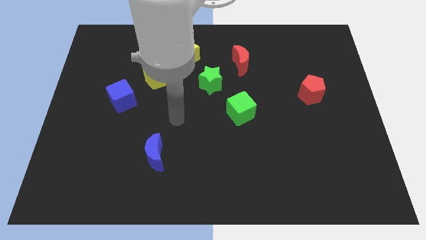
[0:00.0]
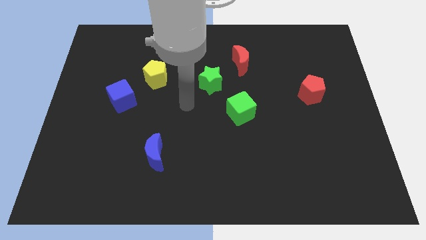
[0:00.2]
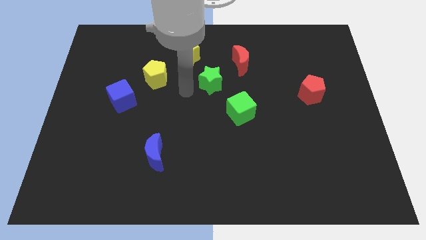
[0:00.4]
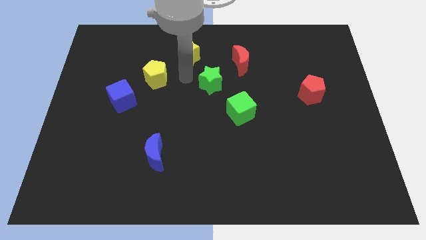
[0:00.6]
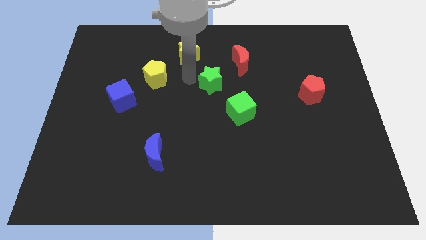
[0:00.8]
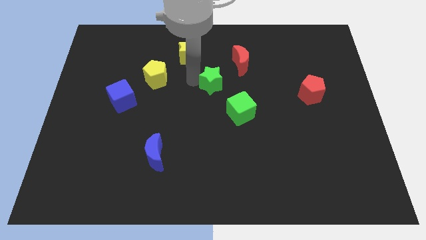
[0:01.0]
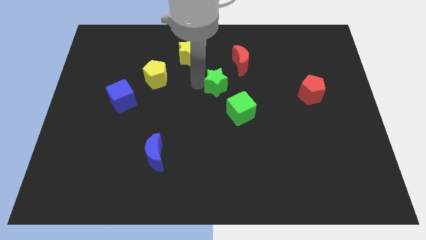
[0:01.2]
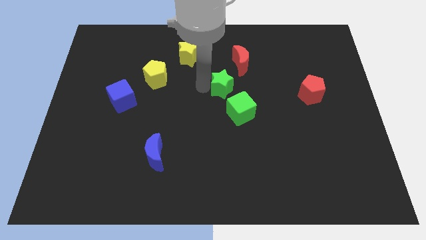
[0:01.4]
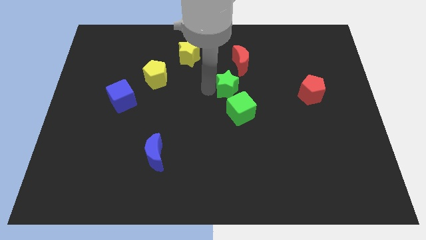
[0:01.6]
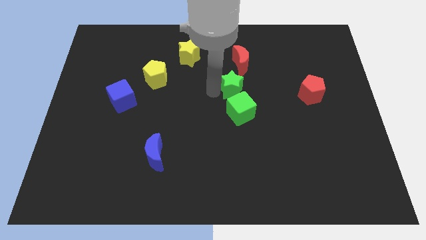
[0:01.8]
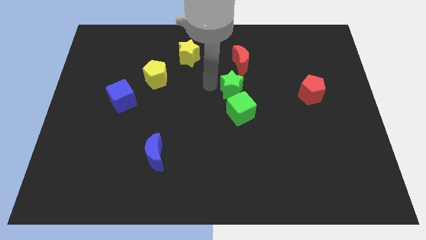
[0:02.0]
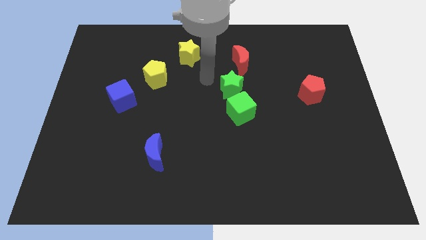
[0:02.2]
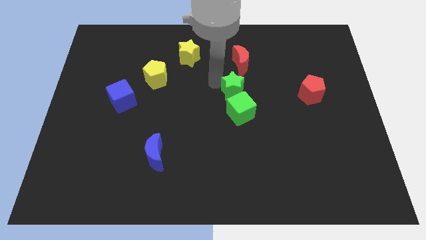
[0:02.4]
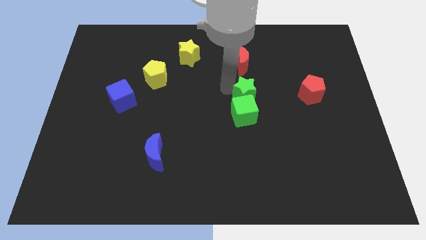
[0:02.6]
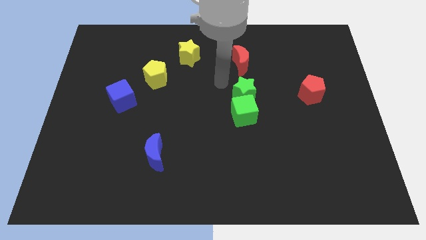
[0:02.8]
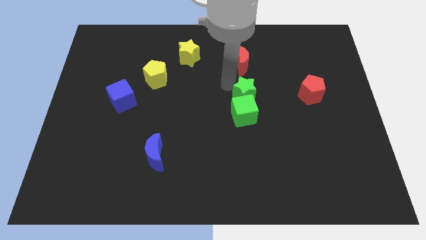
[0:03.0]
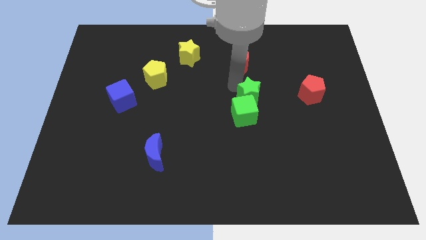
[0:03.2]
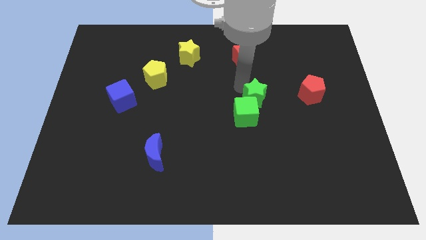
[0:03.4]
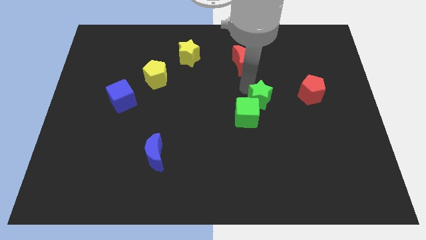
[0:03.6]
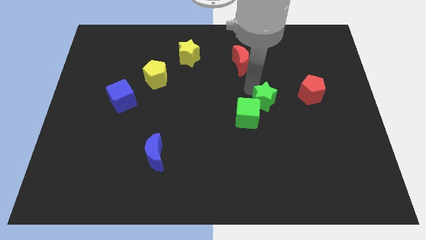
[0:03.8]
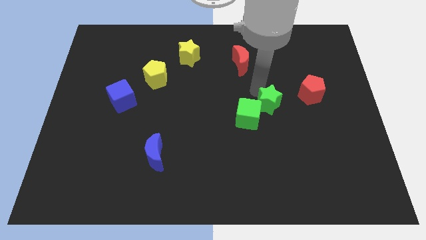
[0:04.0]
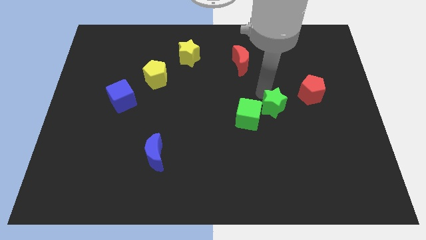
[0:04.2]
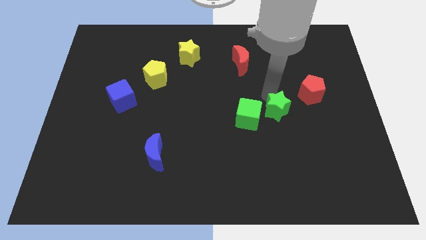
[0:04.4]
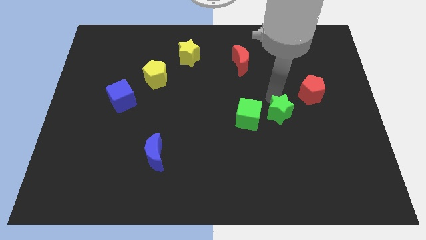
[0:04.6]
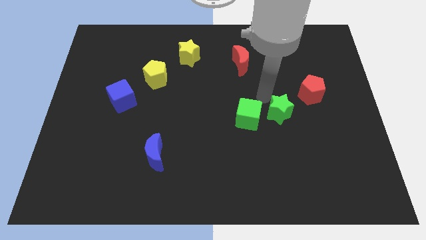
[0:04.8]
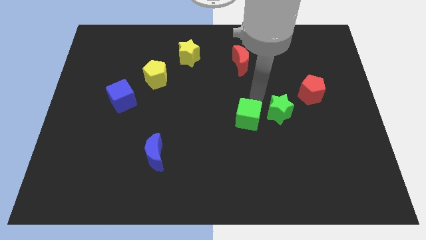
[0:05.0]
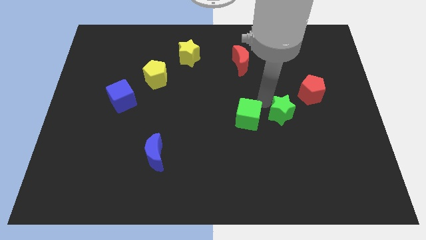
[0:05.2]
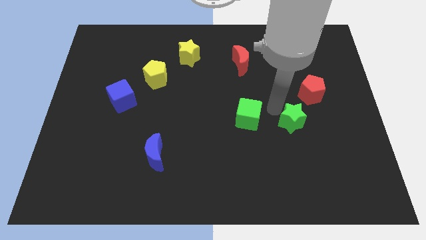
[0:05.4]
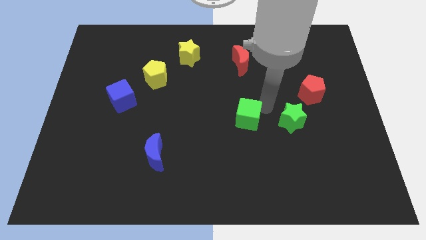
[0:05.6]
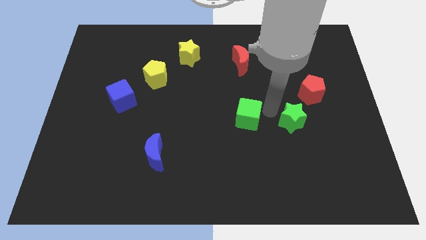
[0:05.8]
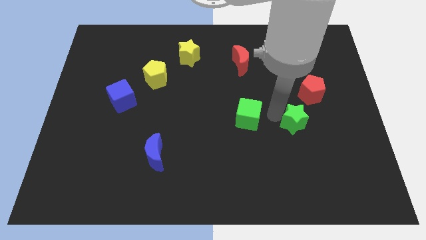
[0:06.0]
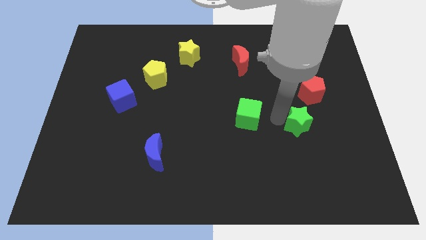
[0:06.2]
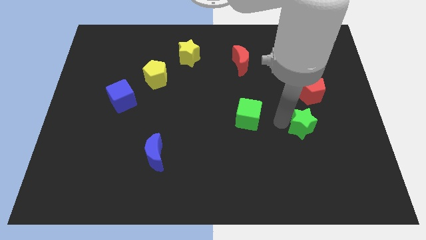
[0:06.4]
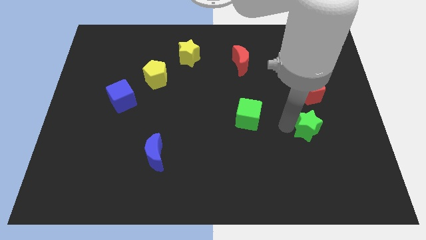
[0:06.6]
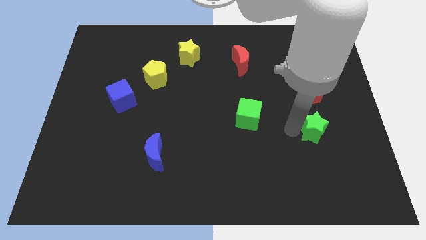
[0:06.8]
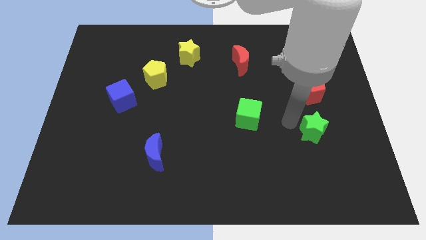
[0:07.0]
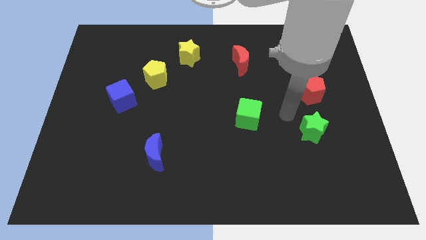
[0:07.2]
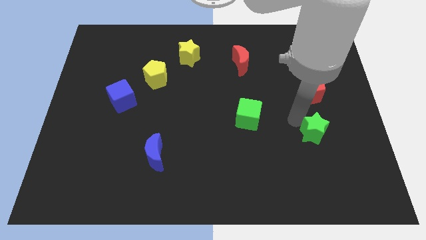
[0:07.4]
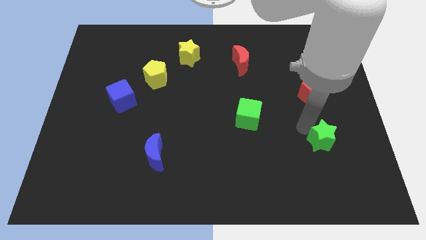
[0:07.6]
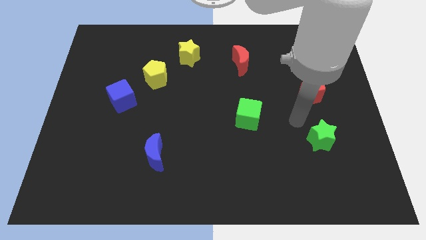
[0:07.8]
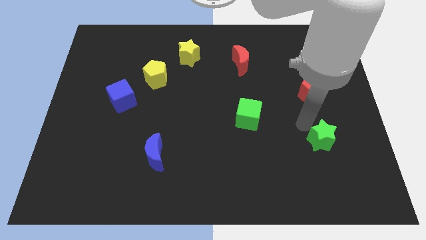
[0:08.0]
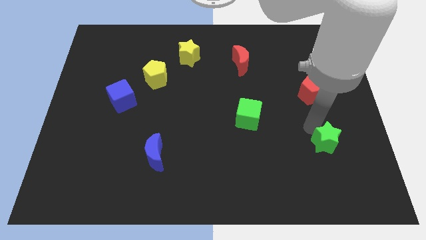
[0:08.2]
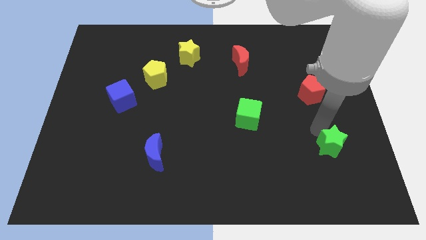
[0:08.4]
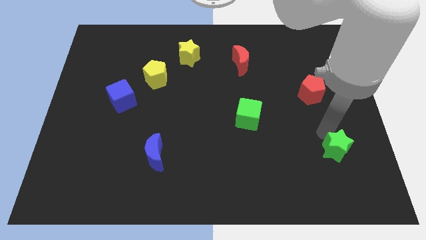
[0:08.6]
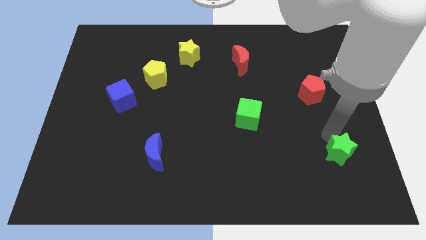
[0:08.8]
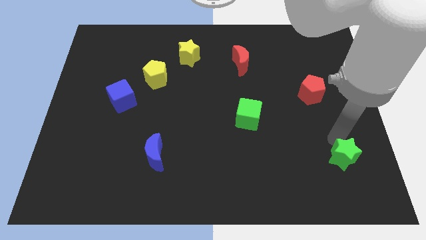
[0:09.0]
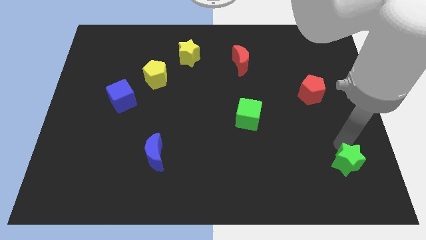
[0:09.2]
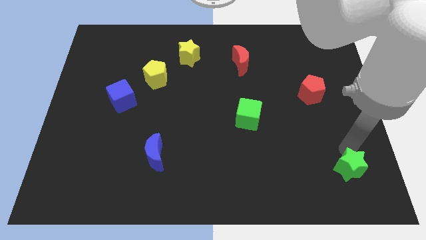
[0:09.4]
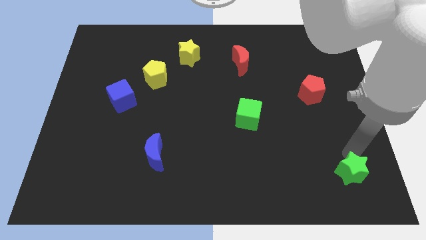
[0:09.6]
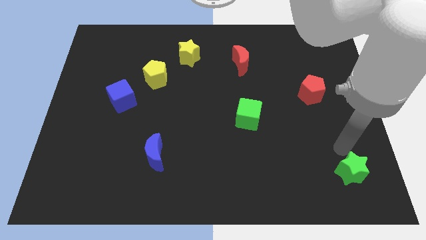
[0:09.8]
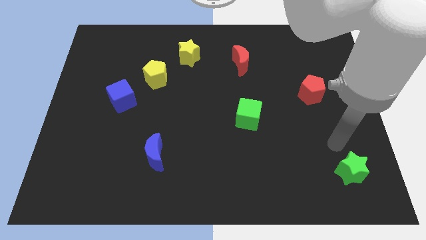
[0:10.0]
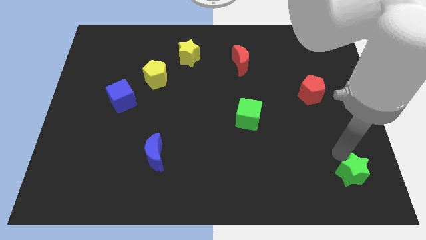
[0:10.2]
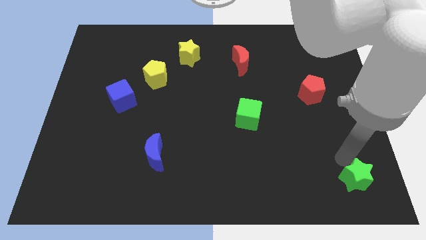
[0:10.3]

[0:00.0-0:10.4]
move the green star to the lower right corner

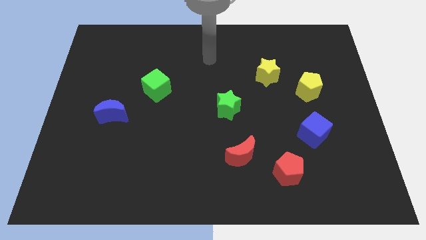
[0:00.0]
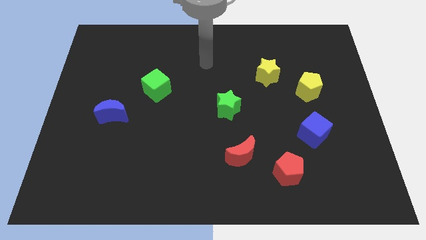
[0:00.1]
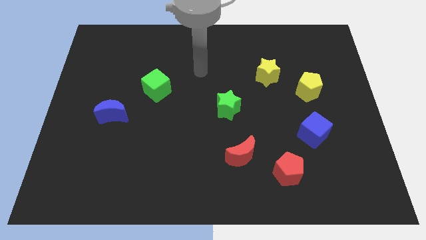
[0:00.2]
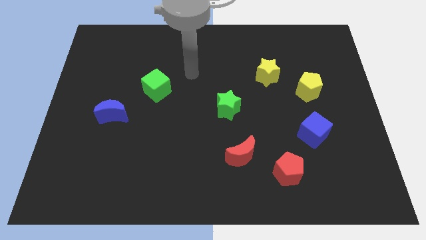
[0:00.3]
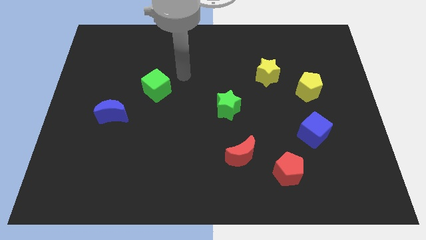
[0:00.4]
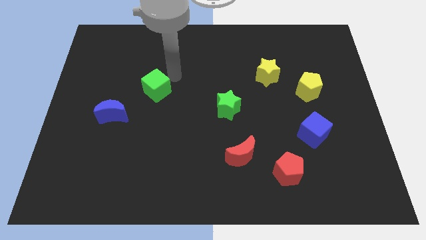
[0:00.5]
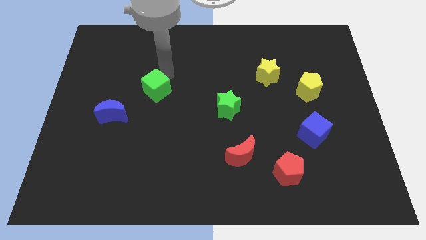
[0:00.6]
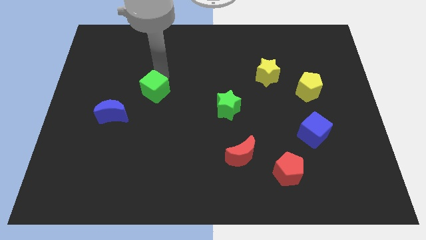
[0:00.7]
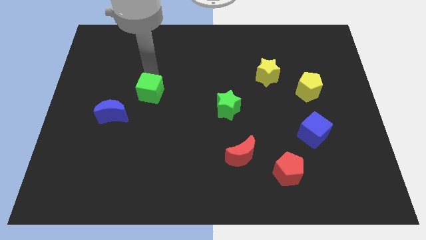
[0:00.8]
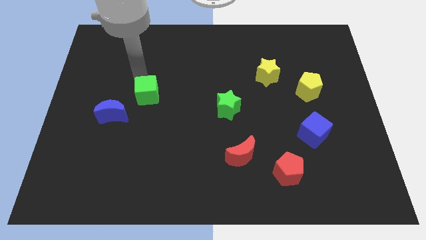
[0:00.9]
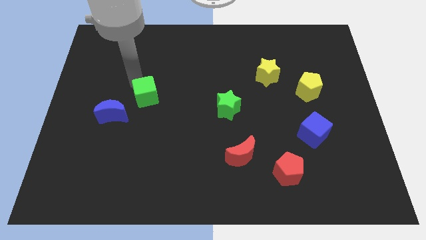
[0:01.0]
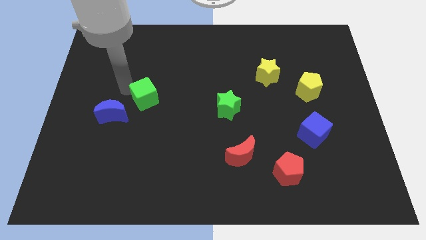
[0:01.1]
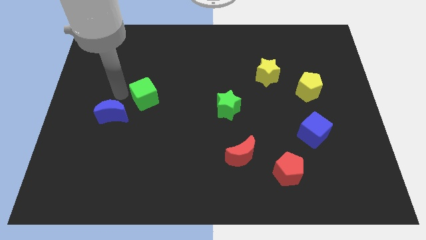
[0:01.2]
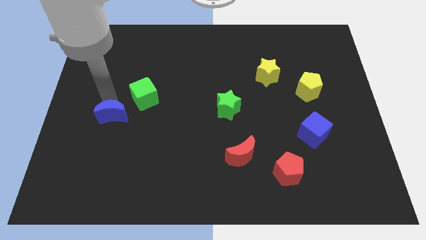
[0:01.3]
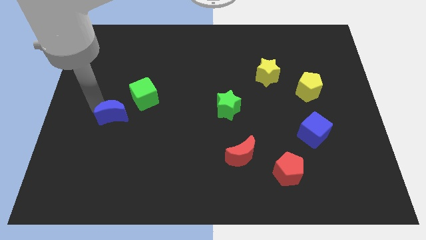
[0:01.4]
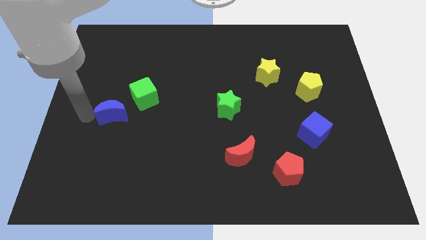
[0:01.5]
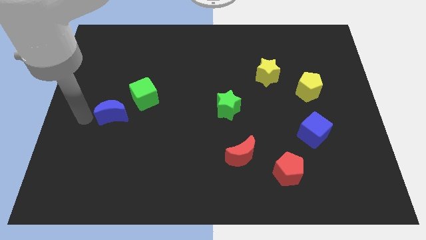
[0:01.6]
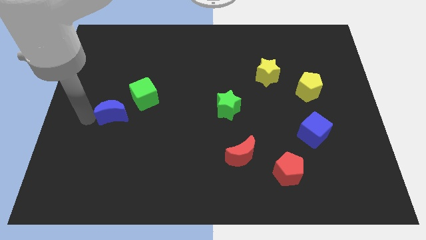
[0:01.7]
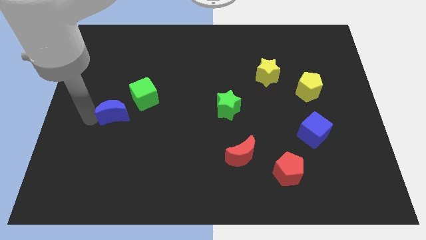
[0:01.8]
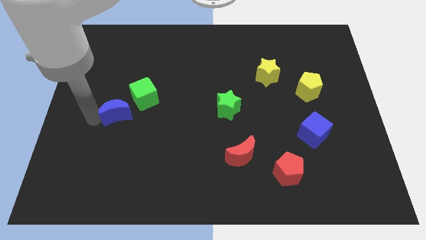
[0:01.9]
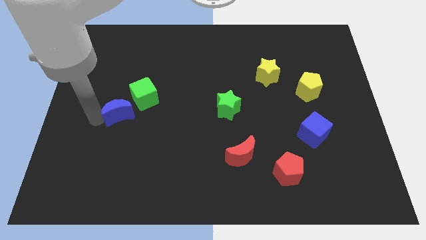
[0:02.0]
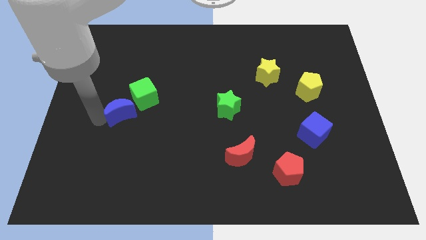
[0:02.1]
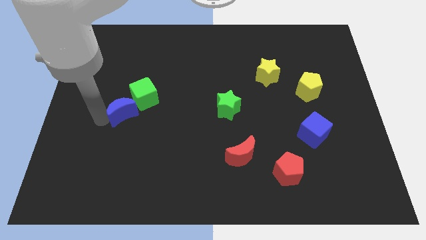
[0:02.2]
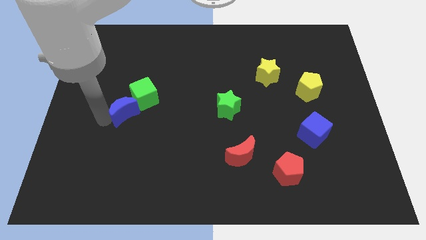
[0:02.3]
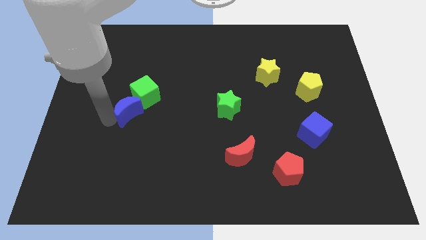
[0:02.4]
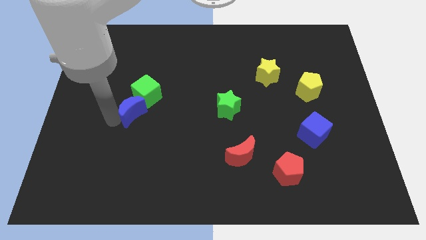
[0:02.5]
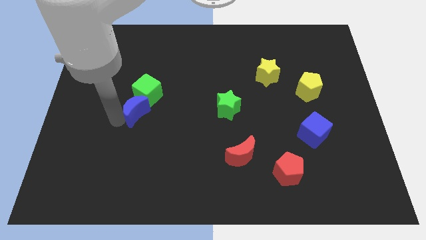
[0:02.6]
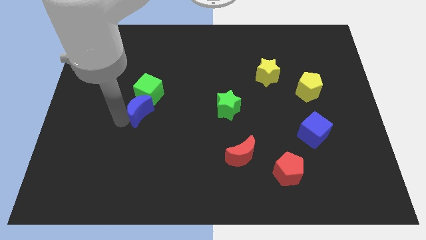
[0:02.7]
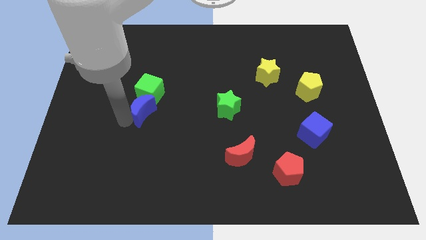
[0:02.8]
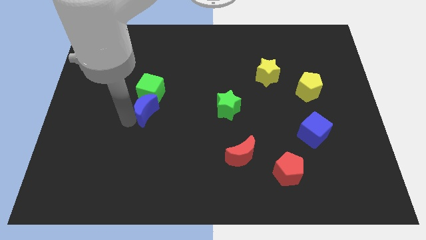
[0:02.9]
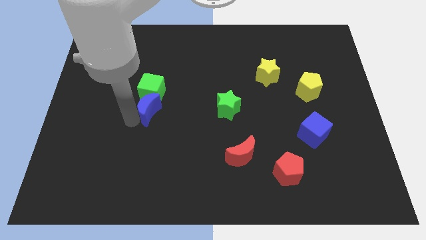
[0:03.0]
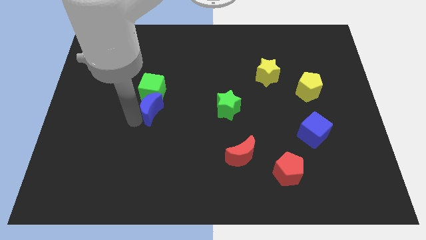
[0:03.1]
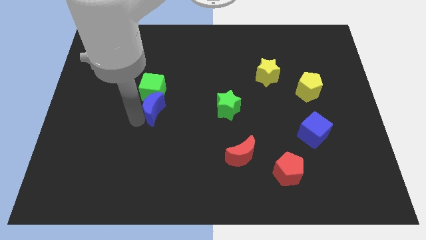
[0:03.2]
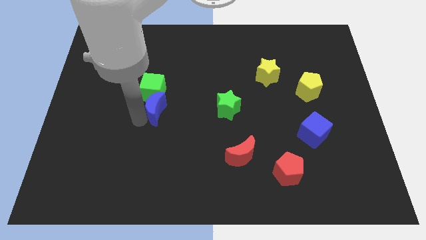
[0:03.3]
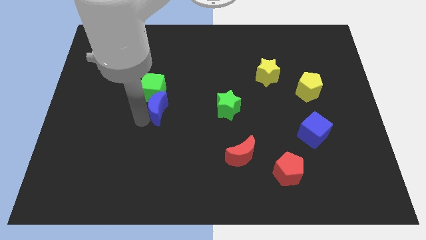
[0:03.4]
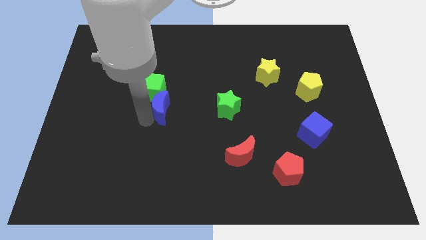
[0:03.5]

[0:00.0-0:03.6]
put the blue moon to the center
